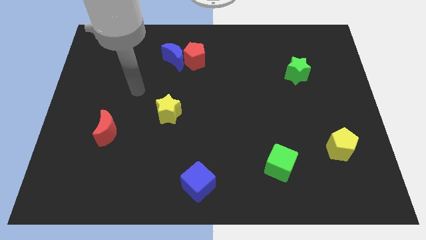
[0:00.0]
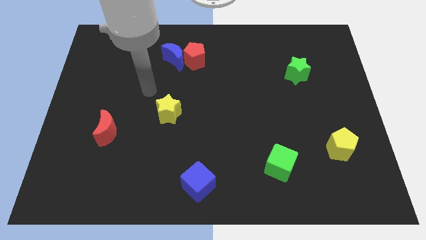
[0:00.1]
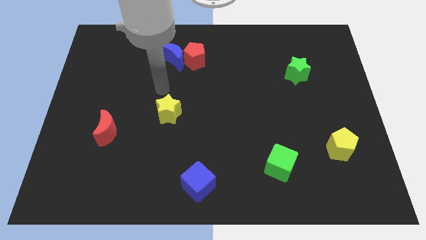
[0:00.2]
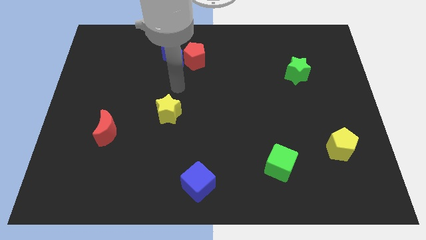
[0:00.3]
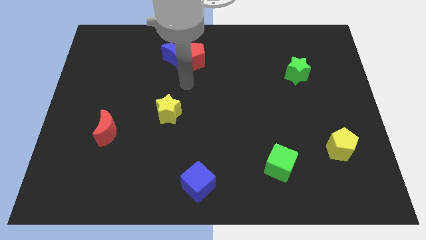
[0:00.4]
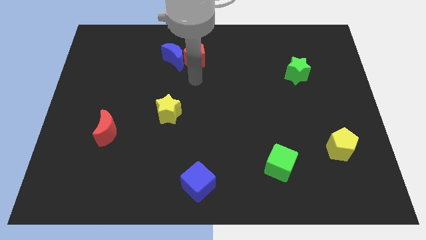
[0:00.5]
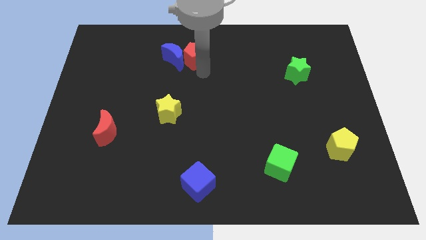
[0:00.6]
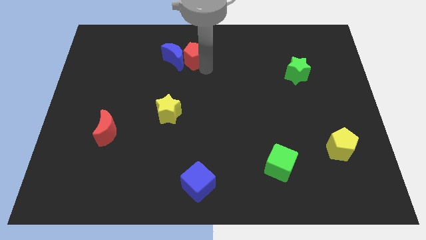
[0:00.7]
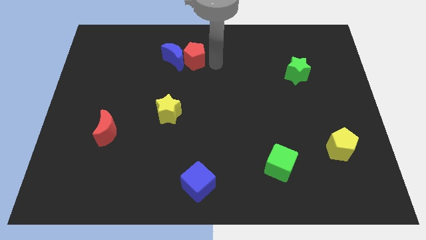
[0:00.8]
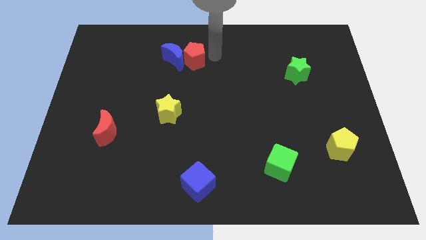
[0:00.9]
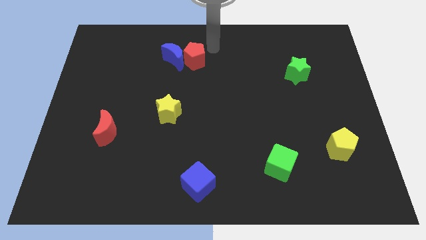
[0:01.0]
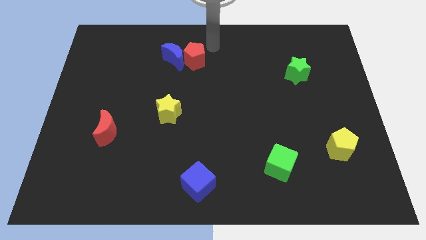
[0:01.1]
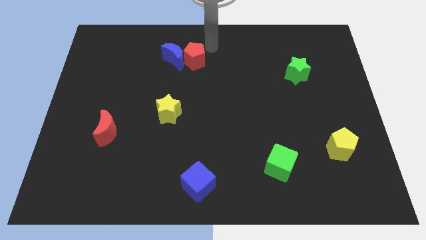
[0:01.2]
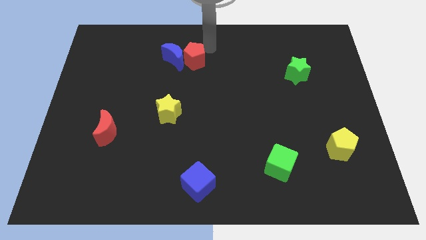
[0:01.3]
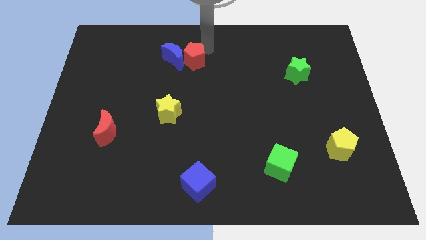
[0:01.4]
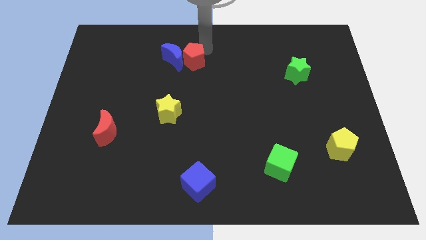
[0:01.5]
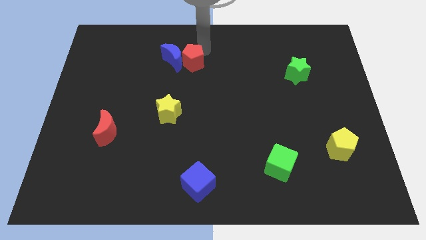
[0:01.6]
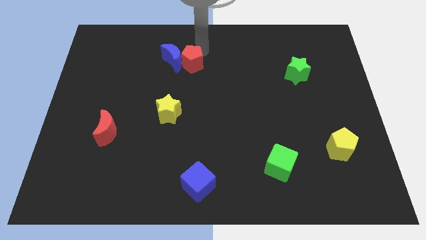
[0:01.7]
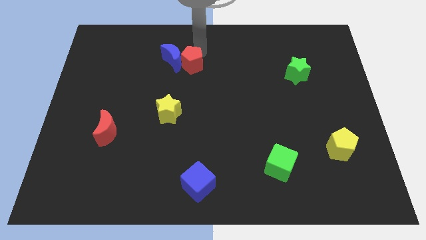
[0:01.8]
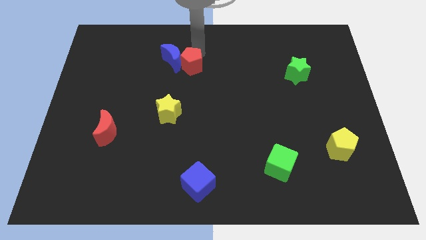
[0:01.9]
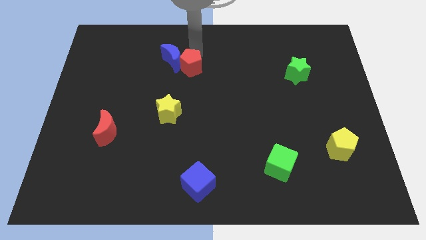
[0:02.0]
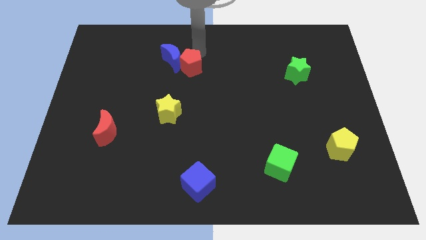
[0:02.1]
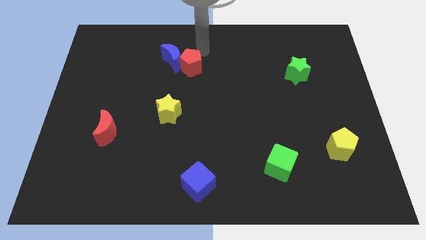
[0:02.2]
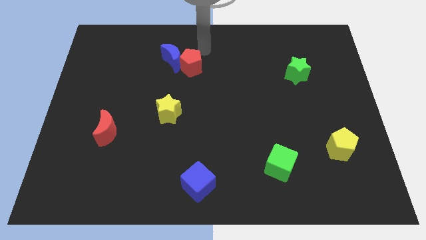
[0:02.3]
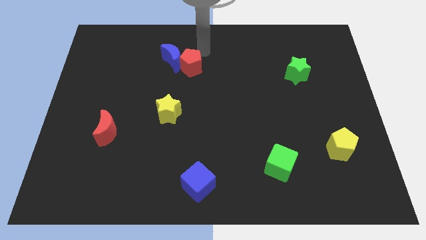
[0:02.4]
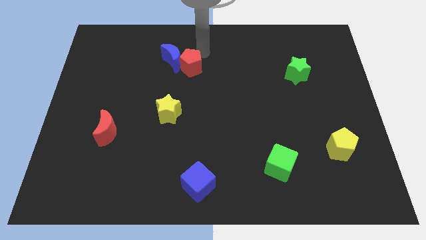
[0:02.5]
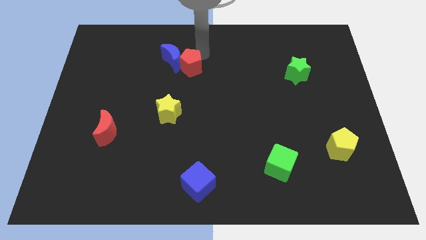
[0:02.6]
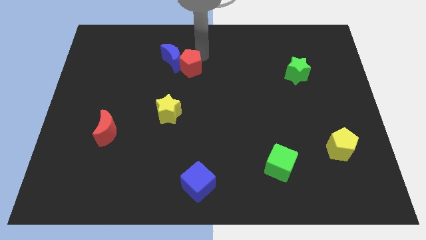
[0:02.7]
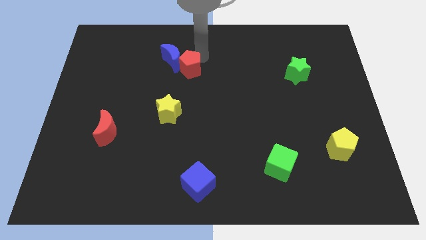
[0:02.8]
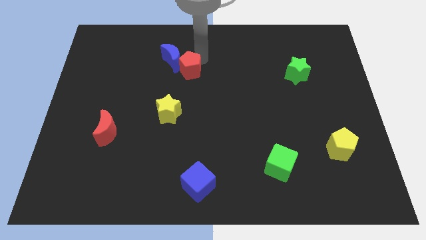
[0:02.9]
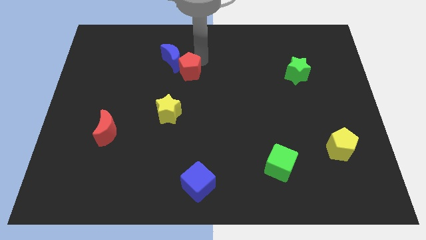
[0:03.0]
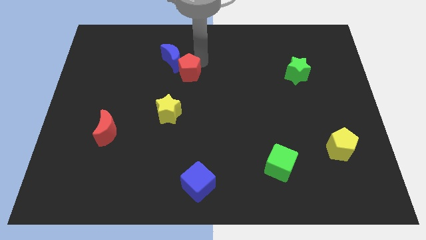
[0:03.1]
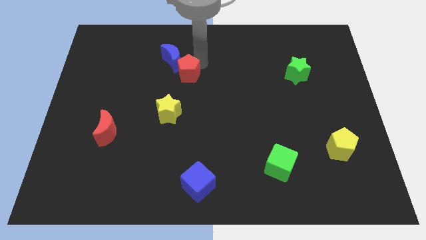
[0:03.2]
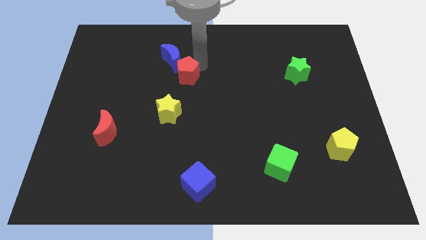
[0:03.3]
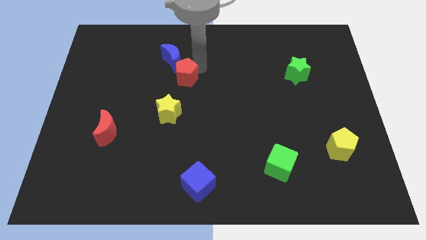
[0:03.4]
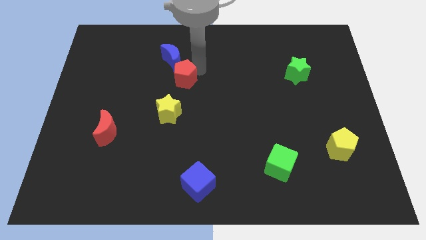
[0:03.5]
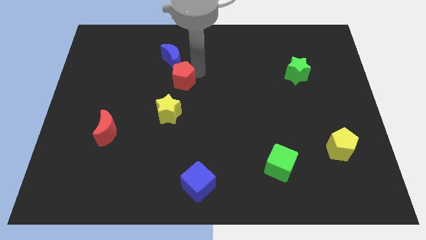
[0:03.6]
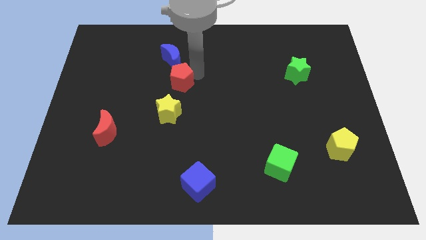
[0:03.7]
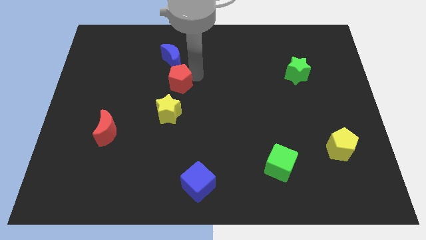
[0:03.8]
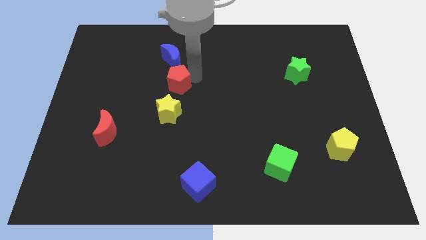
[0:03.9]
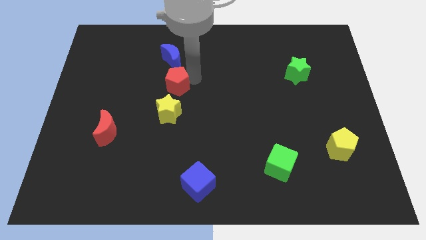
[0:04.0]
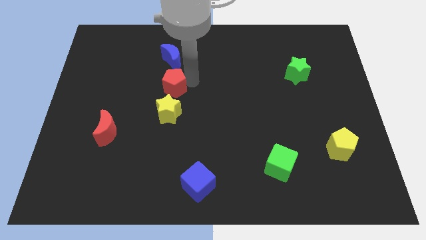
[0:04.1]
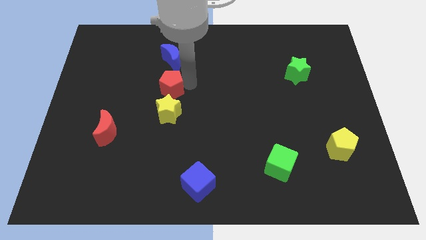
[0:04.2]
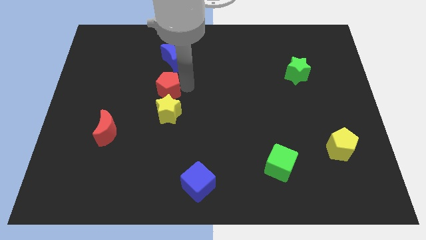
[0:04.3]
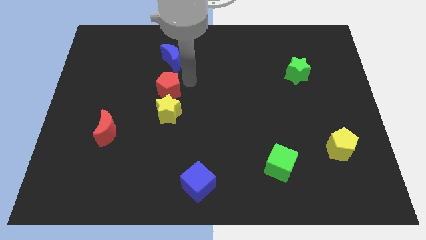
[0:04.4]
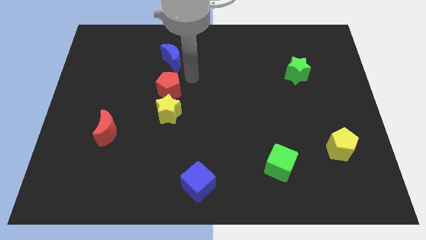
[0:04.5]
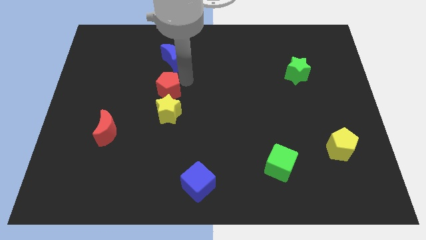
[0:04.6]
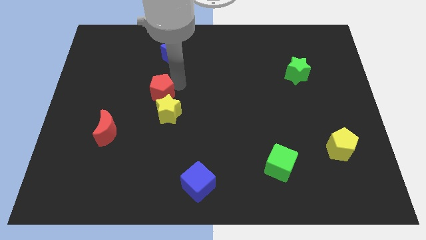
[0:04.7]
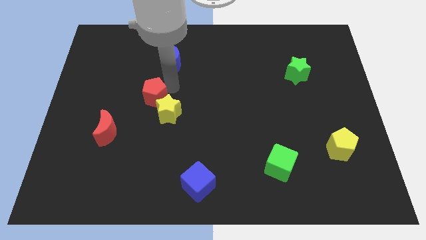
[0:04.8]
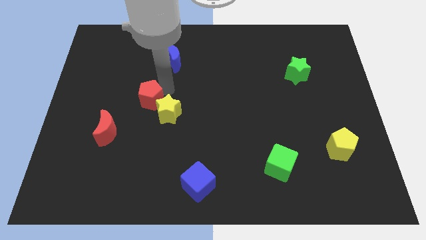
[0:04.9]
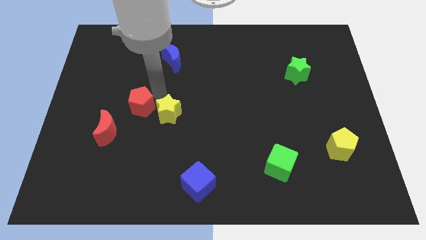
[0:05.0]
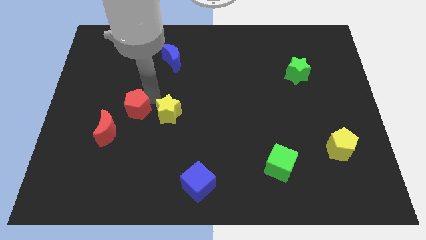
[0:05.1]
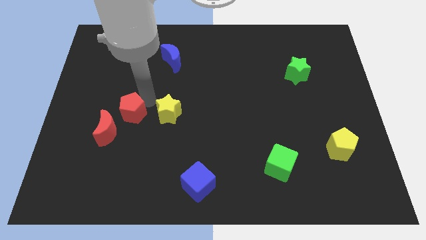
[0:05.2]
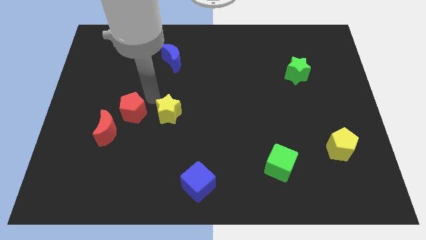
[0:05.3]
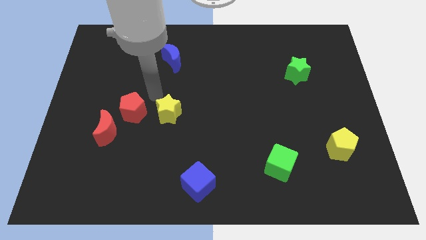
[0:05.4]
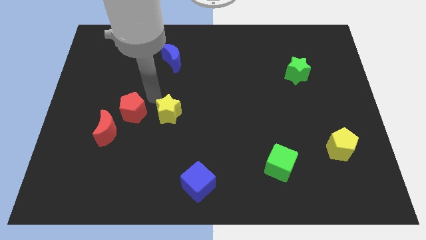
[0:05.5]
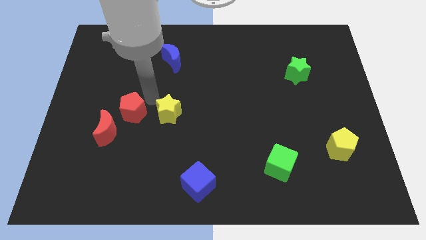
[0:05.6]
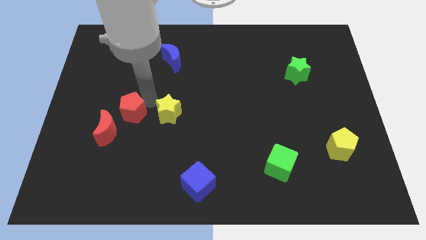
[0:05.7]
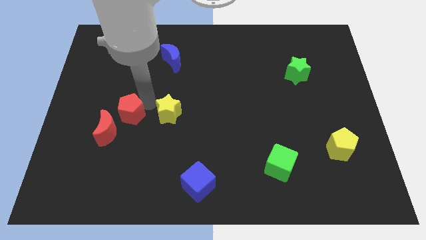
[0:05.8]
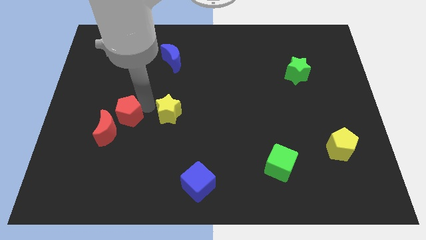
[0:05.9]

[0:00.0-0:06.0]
put the red pentagon towards the red moon

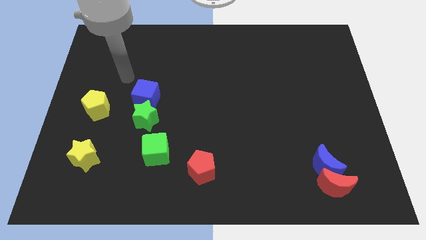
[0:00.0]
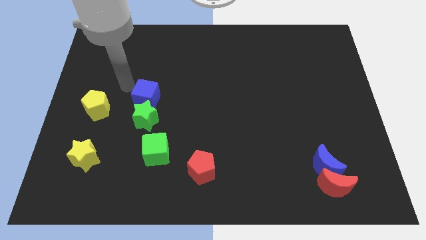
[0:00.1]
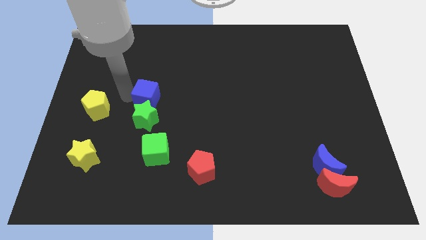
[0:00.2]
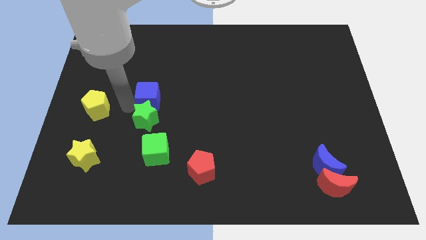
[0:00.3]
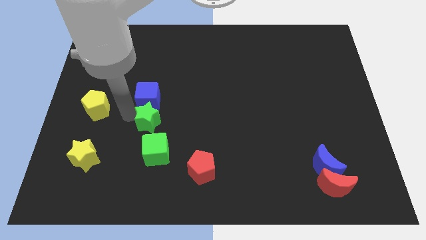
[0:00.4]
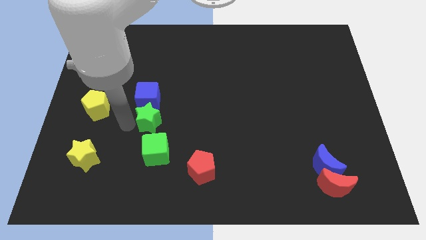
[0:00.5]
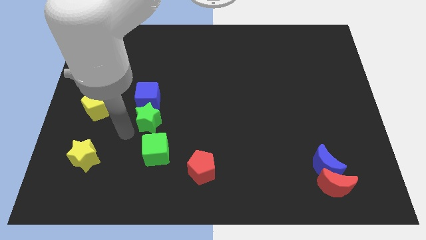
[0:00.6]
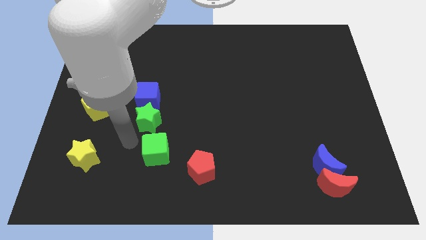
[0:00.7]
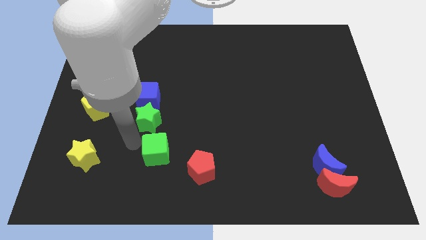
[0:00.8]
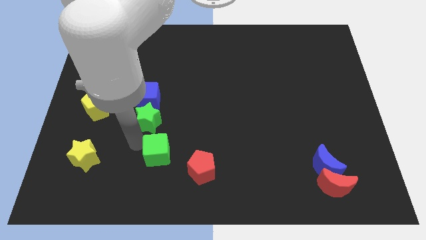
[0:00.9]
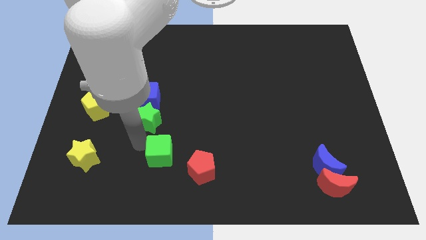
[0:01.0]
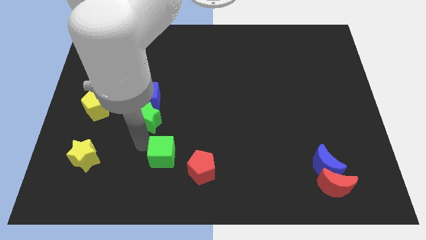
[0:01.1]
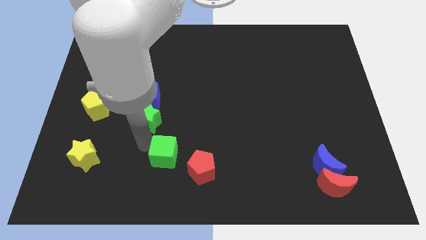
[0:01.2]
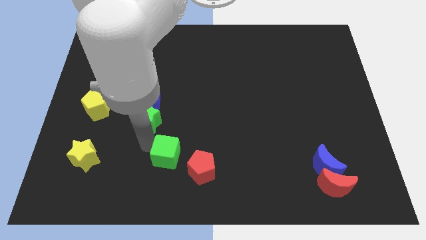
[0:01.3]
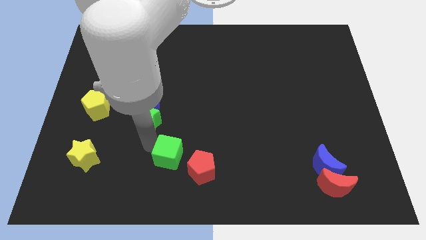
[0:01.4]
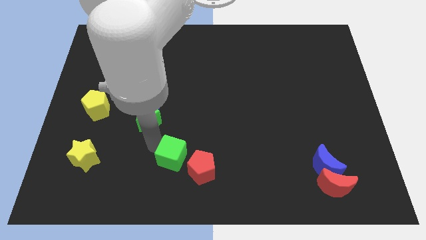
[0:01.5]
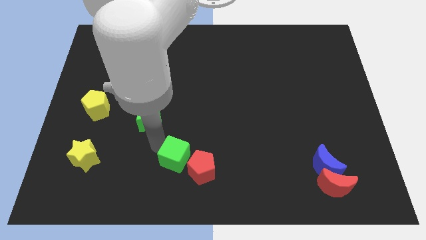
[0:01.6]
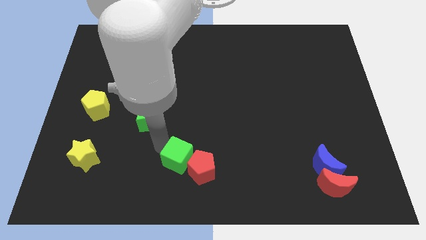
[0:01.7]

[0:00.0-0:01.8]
push the green cube to the red pentagon
